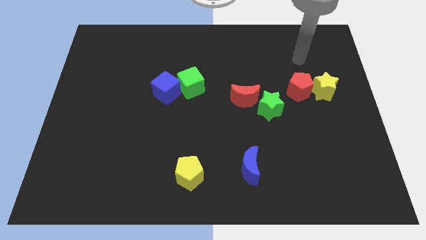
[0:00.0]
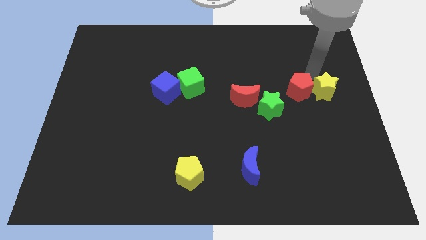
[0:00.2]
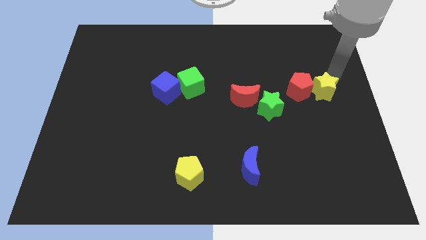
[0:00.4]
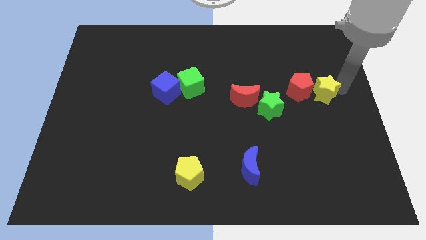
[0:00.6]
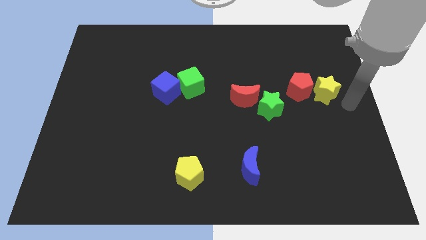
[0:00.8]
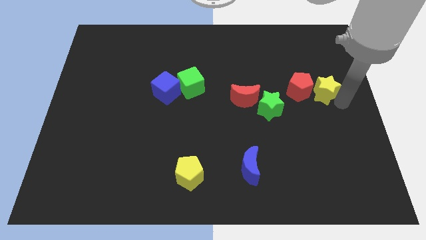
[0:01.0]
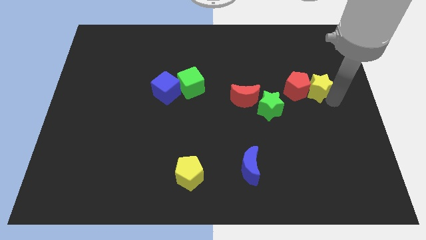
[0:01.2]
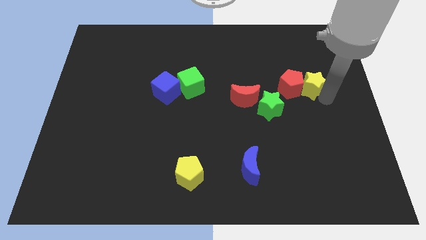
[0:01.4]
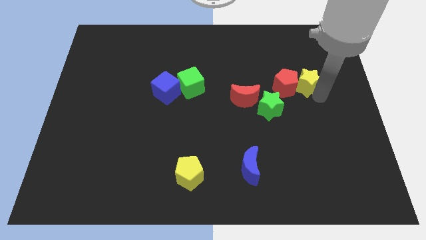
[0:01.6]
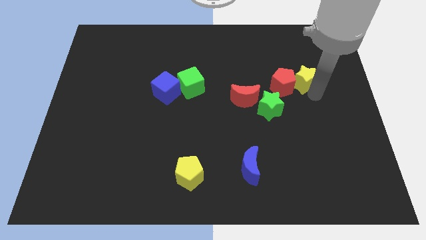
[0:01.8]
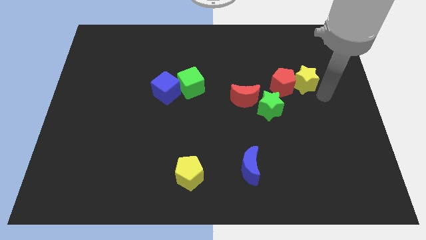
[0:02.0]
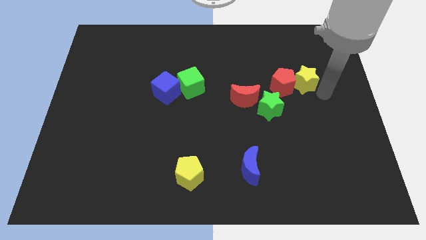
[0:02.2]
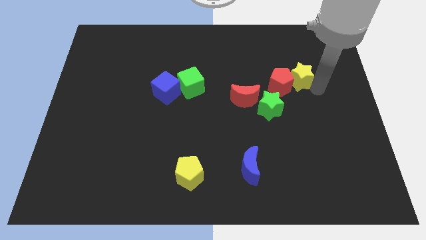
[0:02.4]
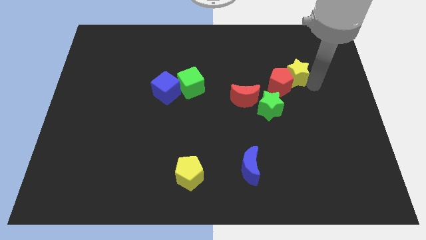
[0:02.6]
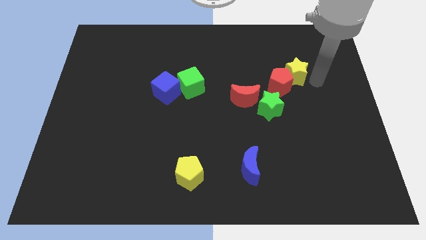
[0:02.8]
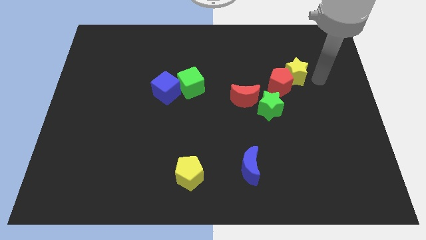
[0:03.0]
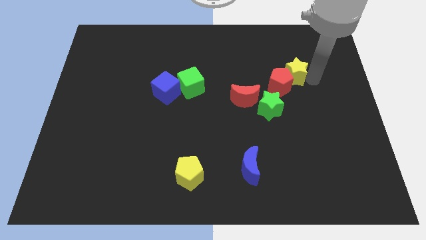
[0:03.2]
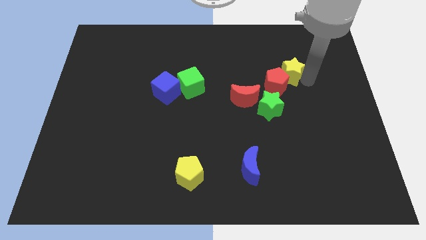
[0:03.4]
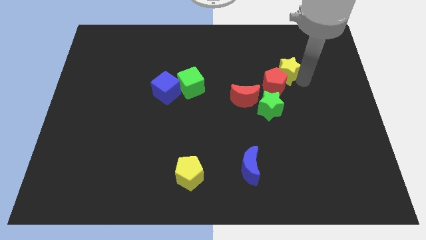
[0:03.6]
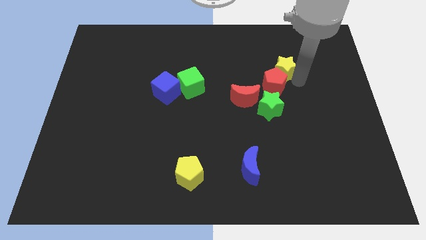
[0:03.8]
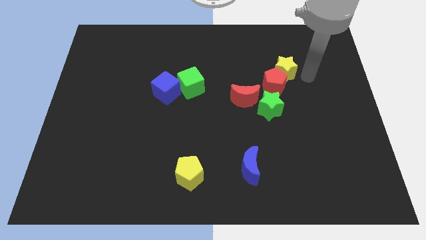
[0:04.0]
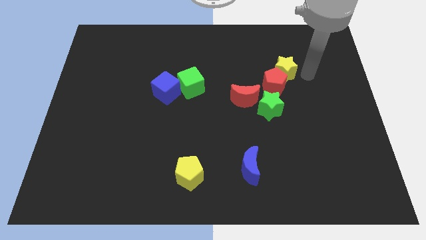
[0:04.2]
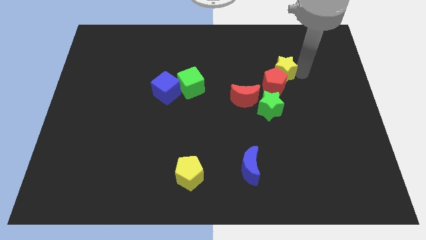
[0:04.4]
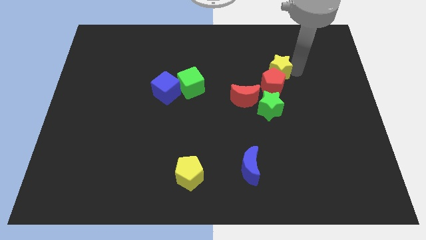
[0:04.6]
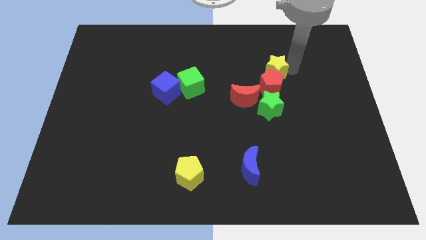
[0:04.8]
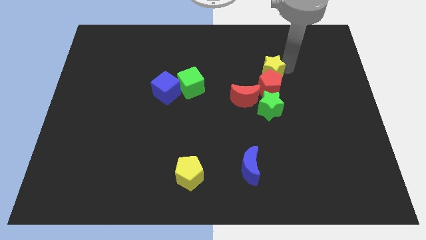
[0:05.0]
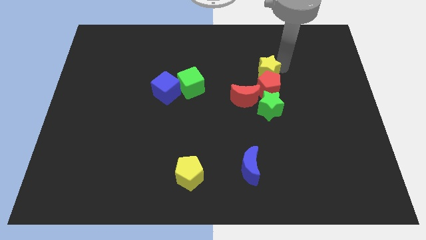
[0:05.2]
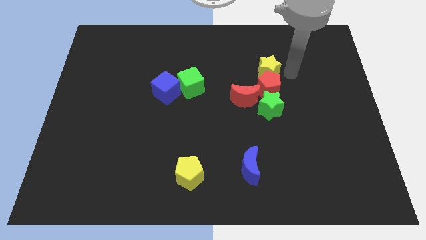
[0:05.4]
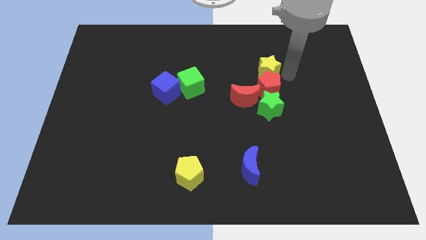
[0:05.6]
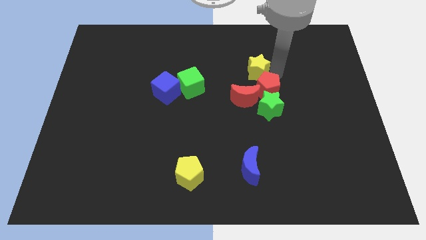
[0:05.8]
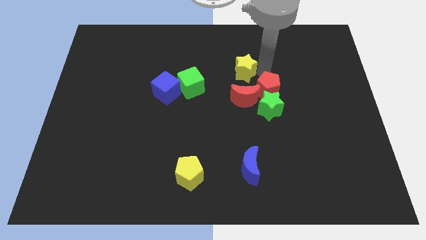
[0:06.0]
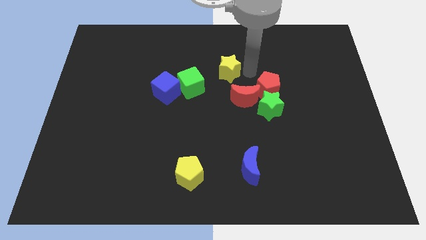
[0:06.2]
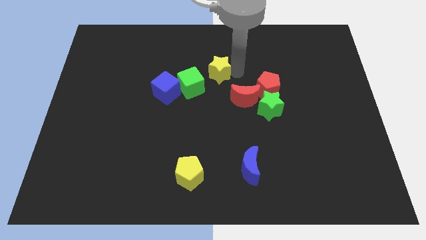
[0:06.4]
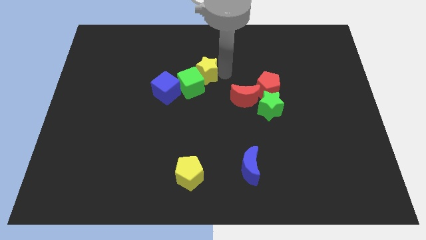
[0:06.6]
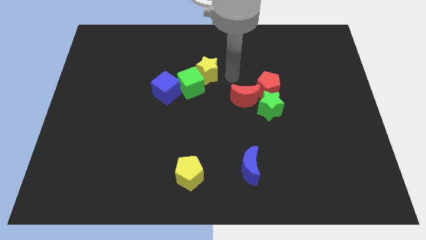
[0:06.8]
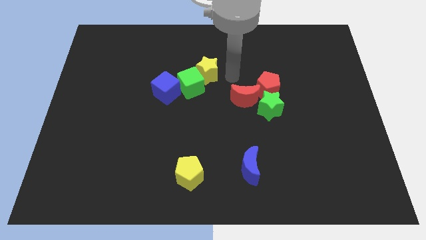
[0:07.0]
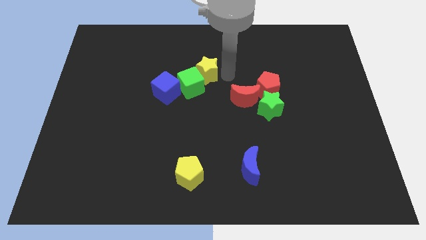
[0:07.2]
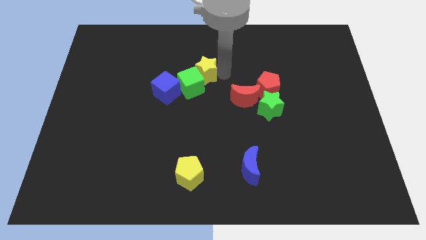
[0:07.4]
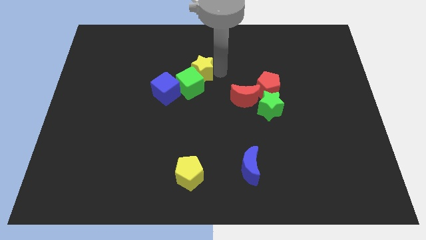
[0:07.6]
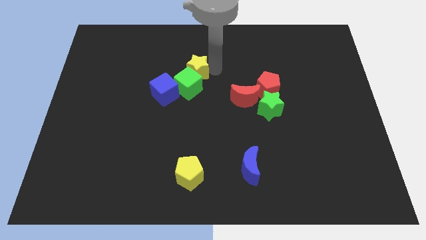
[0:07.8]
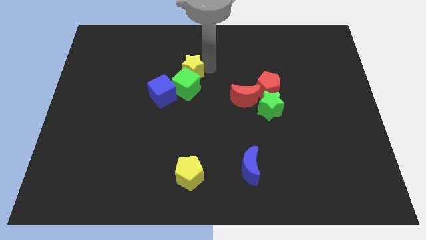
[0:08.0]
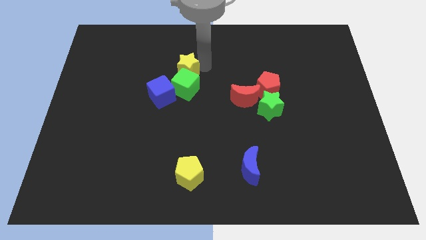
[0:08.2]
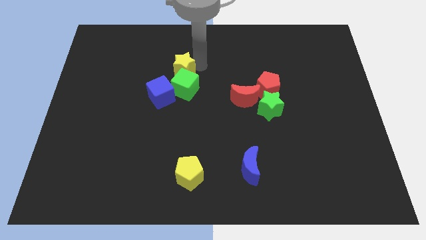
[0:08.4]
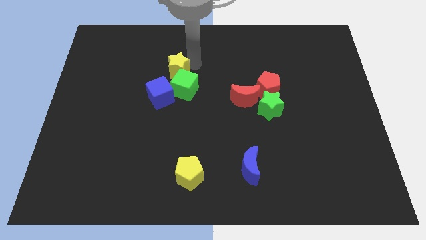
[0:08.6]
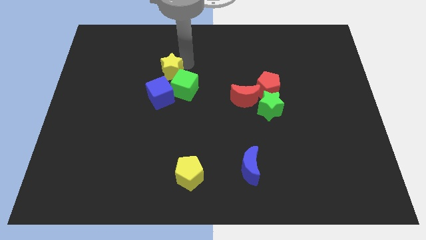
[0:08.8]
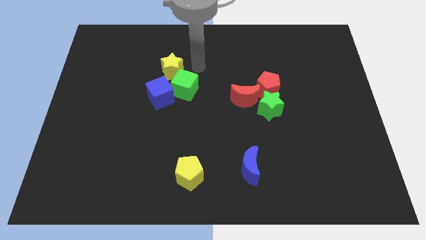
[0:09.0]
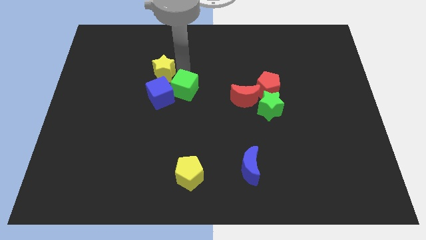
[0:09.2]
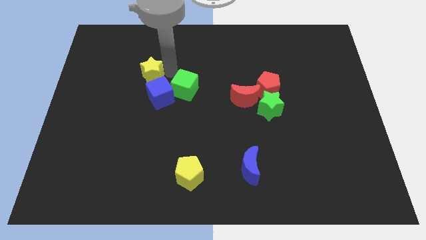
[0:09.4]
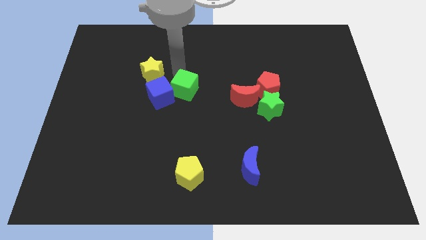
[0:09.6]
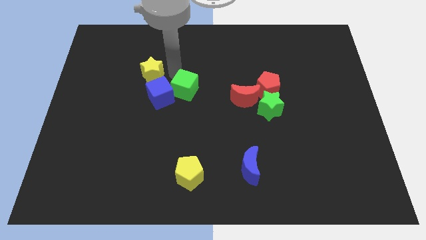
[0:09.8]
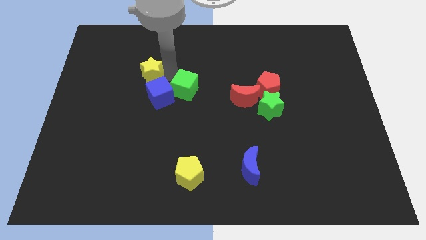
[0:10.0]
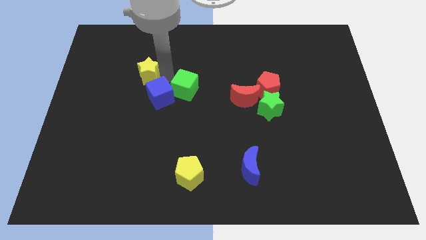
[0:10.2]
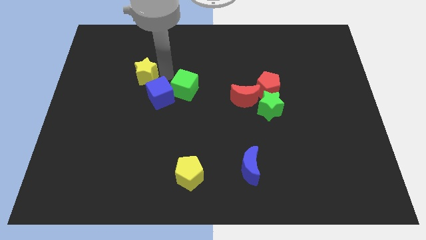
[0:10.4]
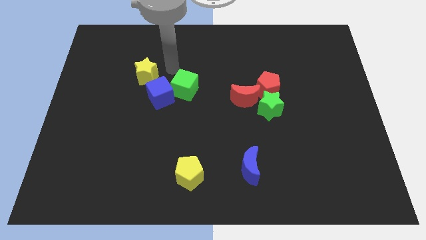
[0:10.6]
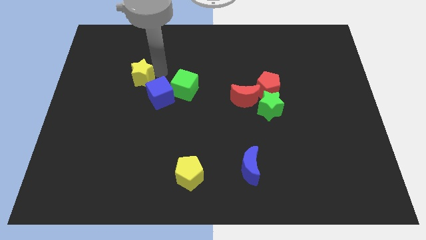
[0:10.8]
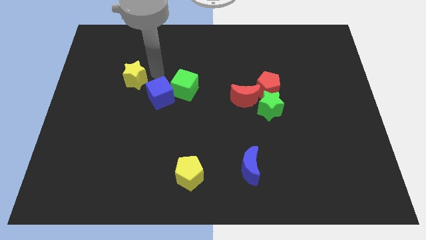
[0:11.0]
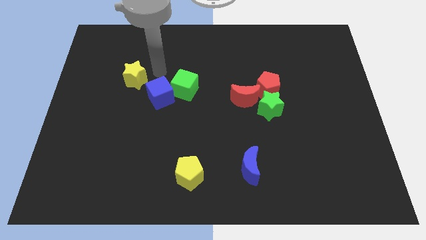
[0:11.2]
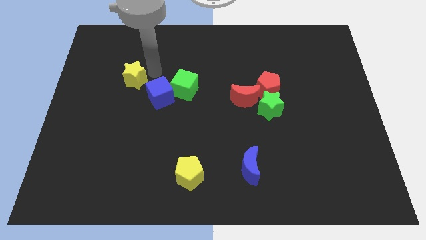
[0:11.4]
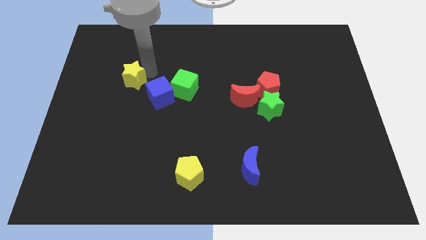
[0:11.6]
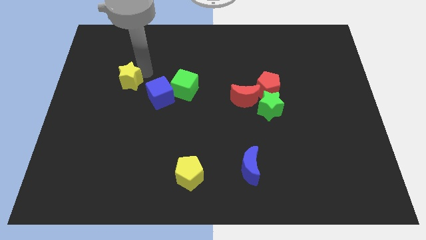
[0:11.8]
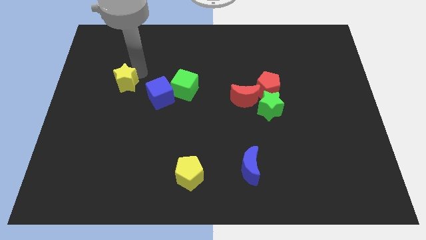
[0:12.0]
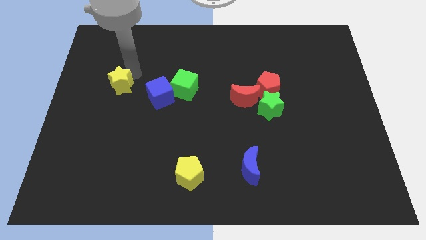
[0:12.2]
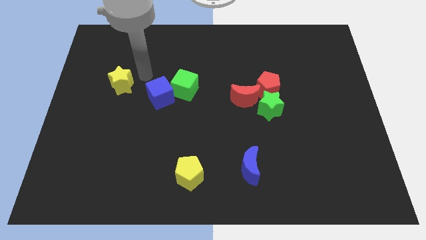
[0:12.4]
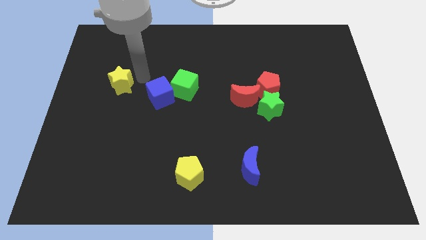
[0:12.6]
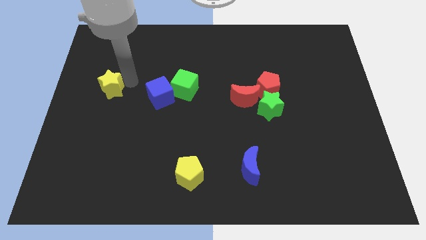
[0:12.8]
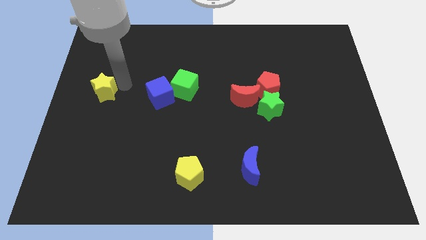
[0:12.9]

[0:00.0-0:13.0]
push the yellow star to the center left
